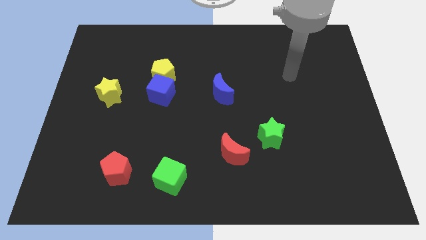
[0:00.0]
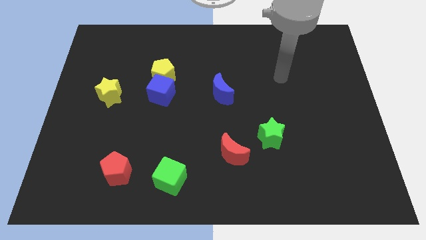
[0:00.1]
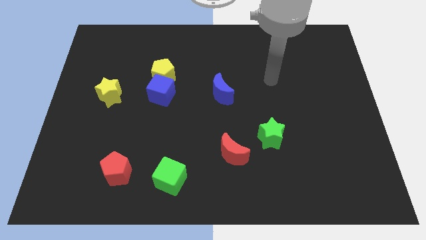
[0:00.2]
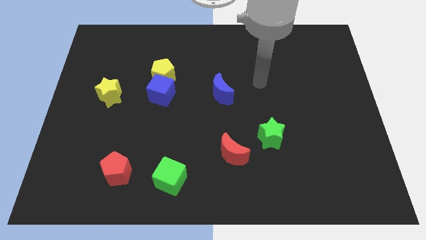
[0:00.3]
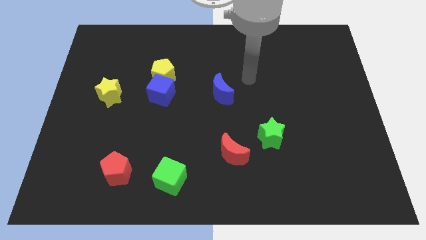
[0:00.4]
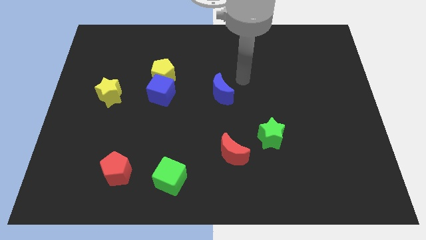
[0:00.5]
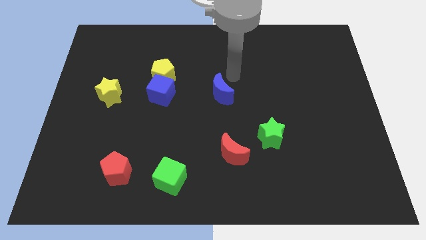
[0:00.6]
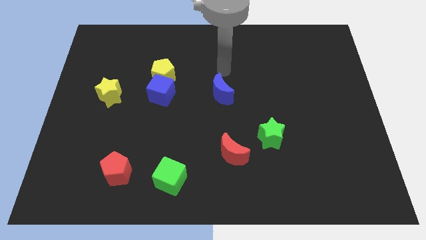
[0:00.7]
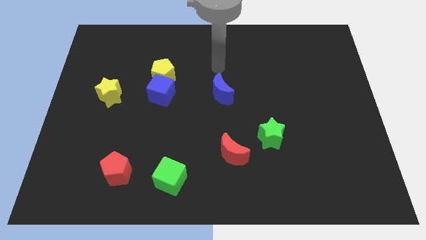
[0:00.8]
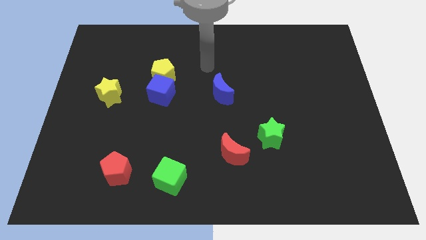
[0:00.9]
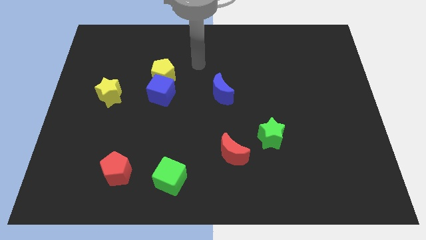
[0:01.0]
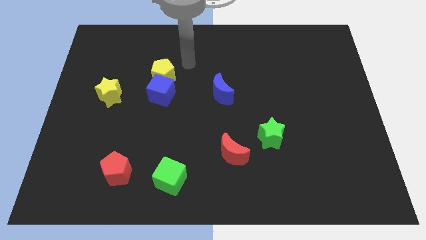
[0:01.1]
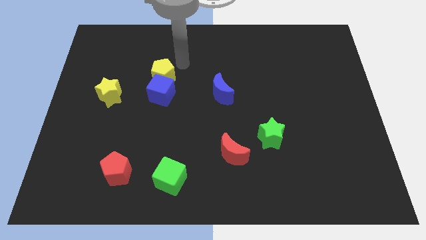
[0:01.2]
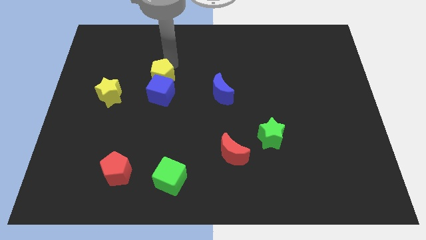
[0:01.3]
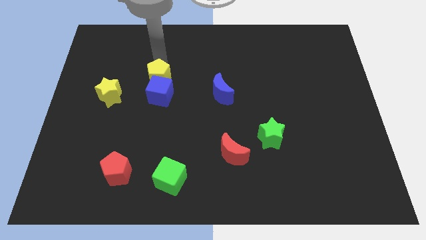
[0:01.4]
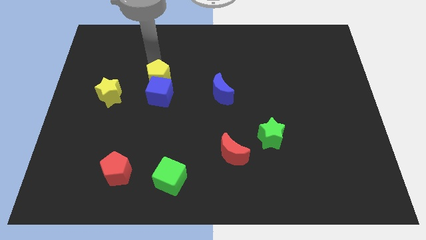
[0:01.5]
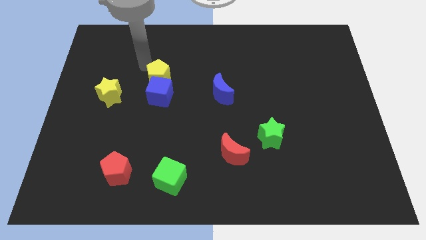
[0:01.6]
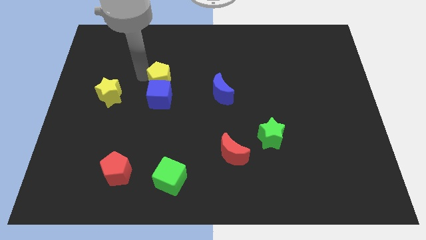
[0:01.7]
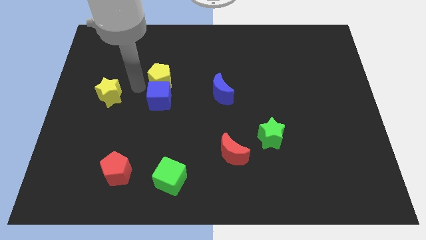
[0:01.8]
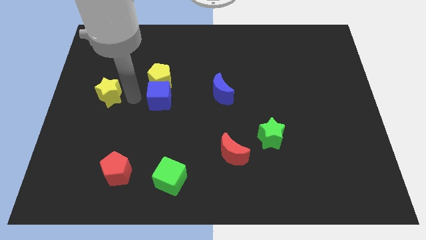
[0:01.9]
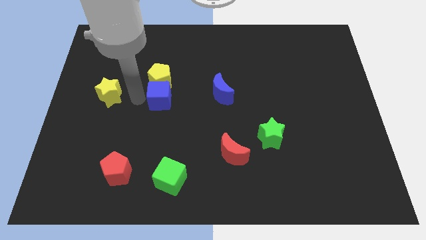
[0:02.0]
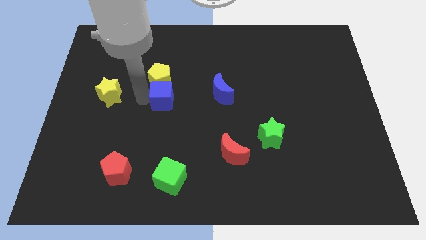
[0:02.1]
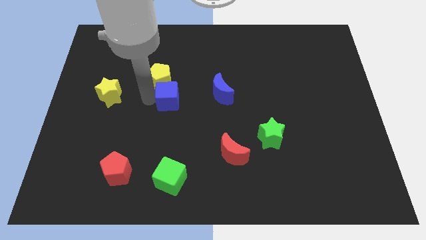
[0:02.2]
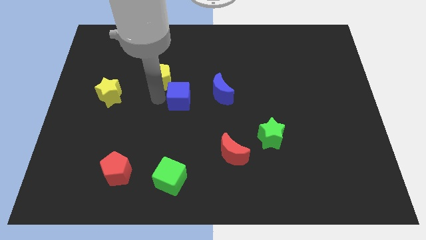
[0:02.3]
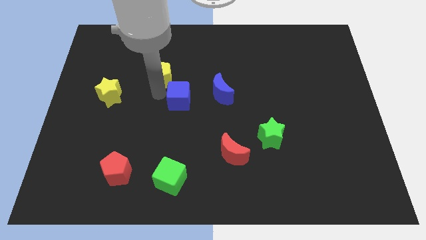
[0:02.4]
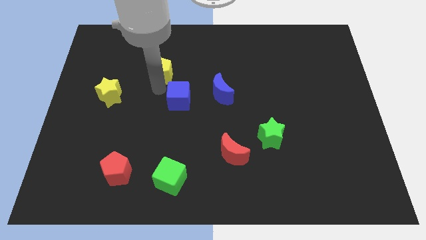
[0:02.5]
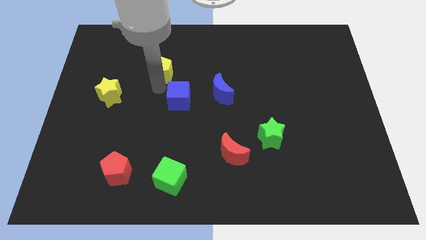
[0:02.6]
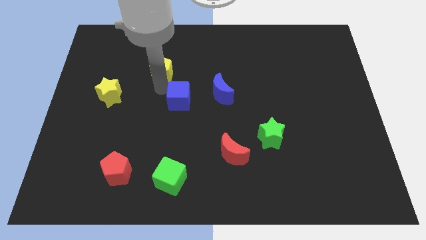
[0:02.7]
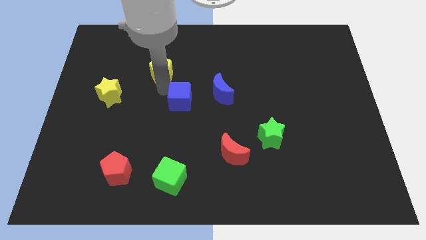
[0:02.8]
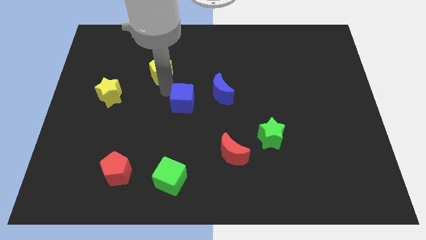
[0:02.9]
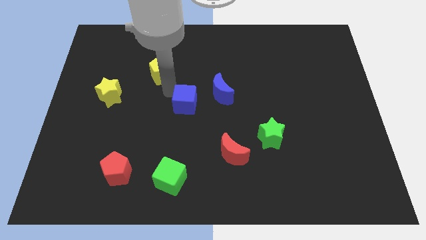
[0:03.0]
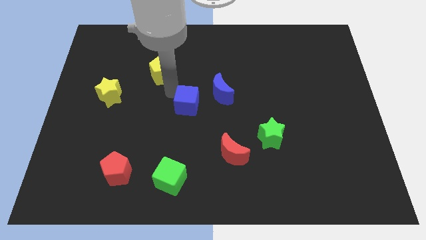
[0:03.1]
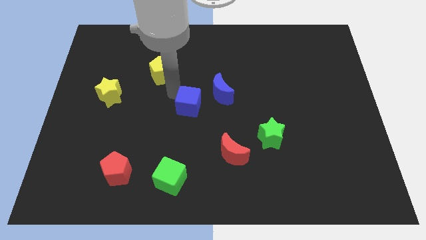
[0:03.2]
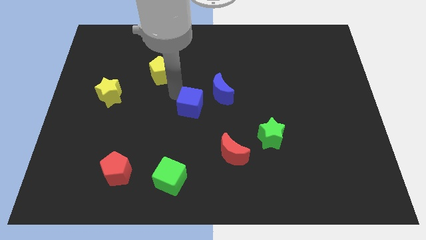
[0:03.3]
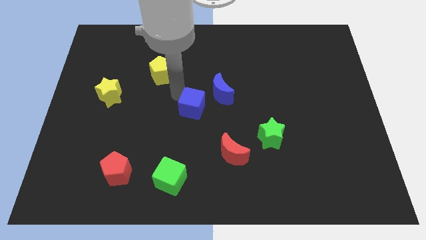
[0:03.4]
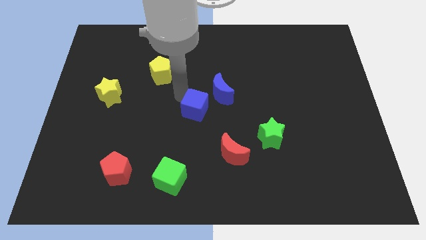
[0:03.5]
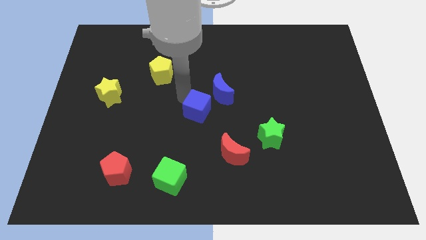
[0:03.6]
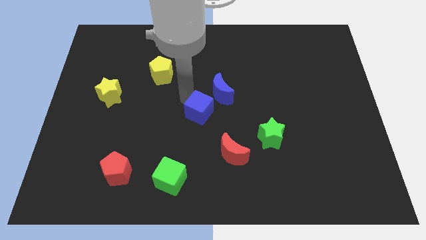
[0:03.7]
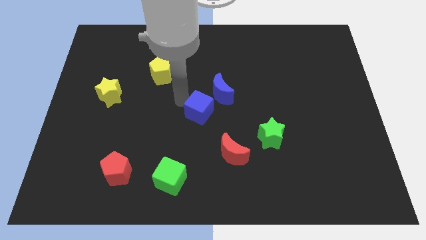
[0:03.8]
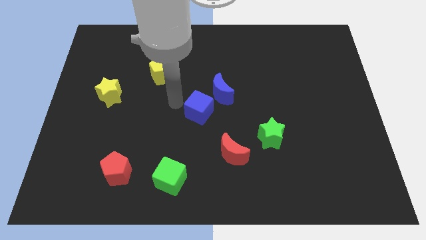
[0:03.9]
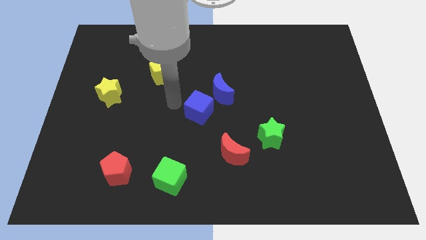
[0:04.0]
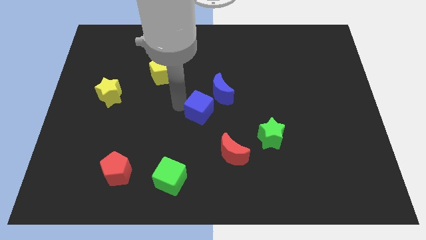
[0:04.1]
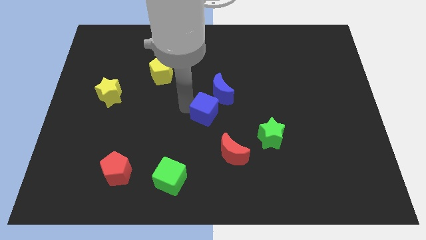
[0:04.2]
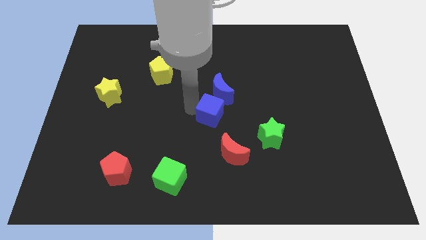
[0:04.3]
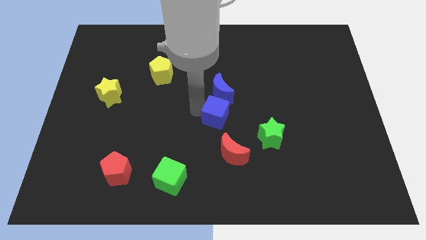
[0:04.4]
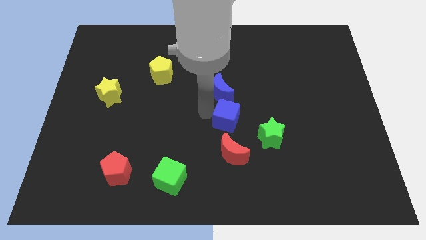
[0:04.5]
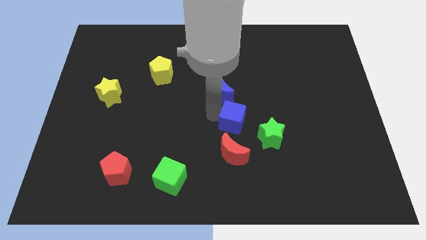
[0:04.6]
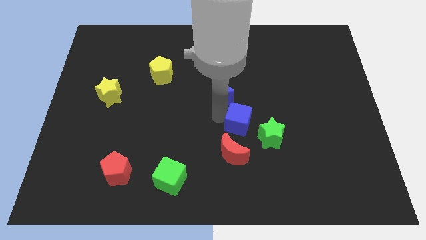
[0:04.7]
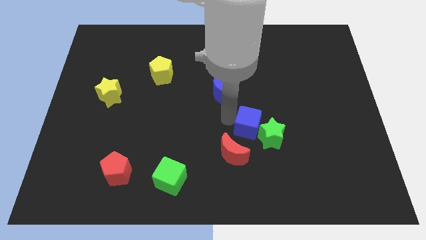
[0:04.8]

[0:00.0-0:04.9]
move the blue cube towards the green star

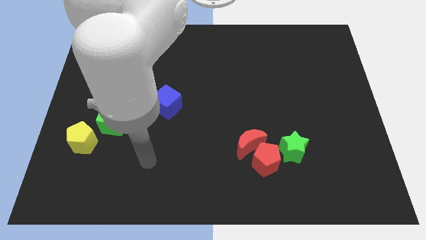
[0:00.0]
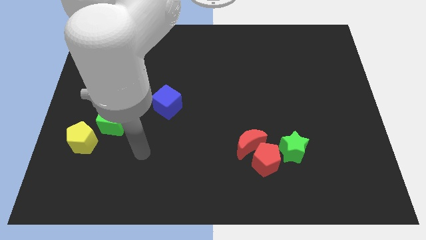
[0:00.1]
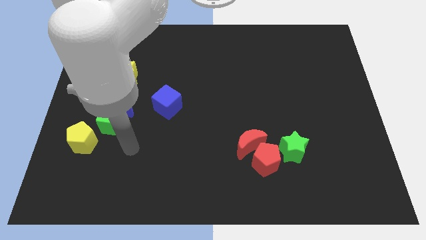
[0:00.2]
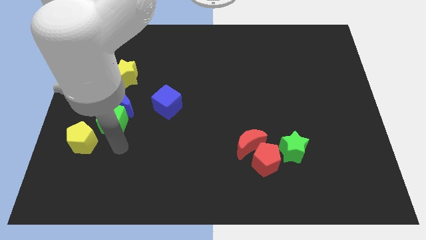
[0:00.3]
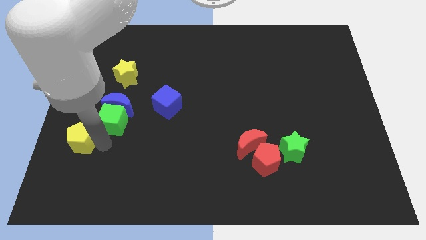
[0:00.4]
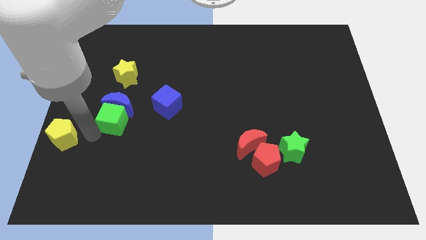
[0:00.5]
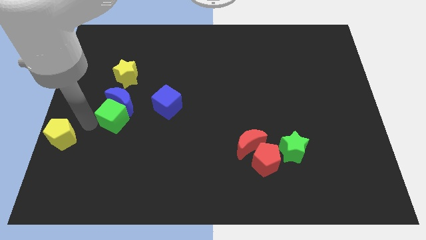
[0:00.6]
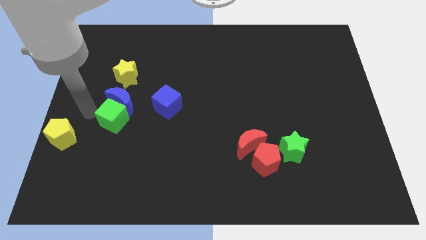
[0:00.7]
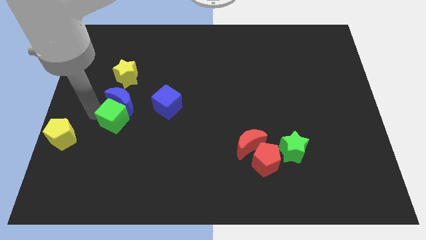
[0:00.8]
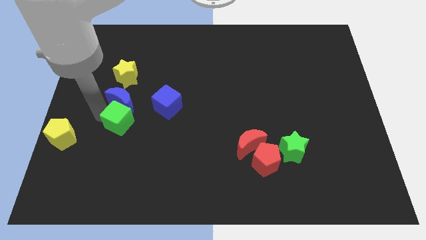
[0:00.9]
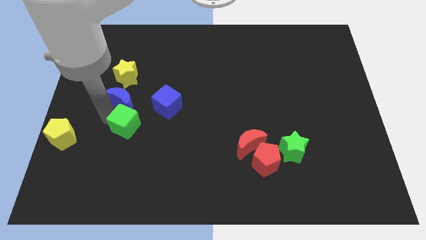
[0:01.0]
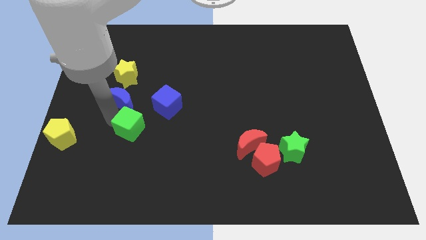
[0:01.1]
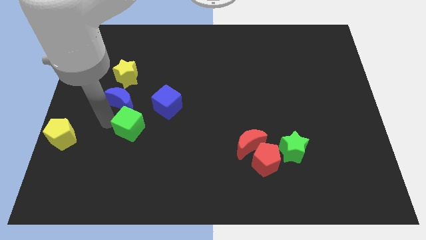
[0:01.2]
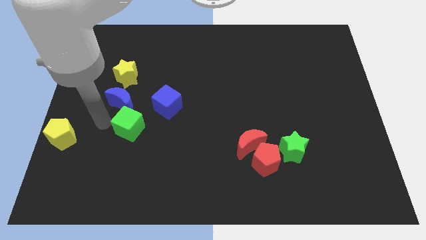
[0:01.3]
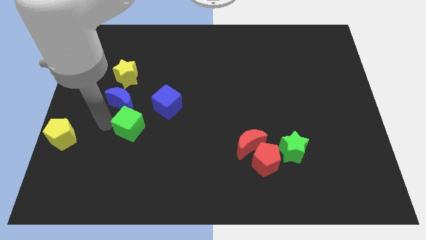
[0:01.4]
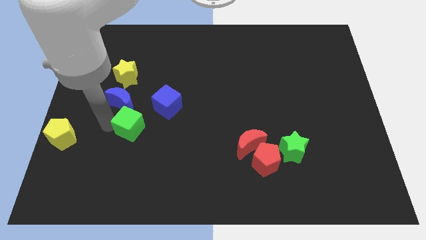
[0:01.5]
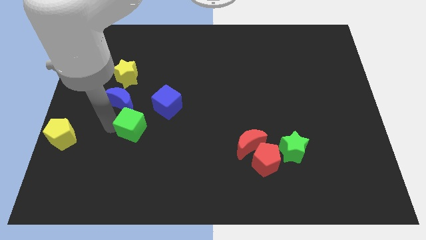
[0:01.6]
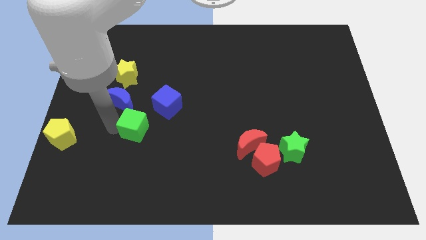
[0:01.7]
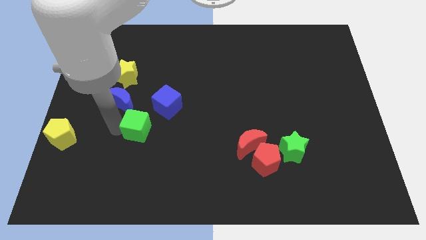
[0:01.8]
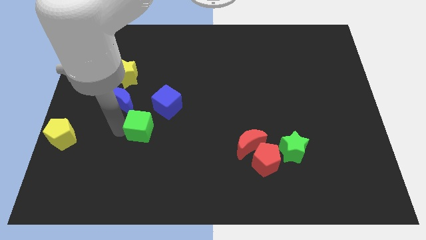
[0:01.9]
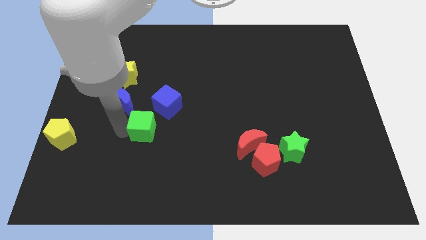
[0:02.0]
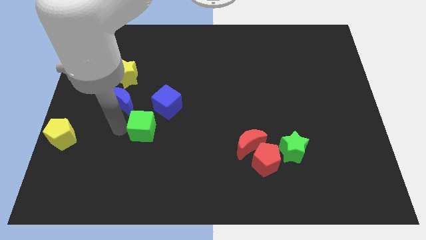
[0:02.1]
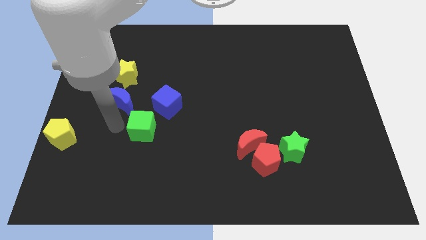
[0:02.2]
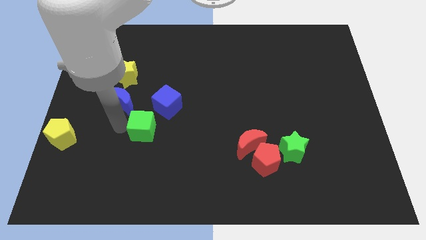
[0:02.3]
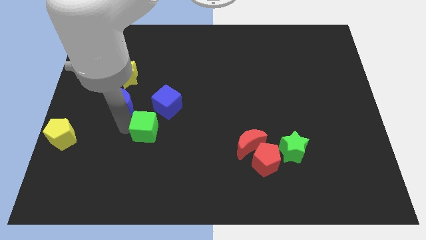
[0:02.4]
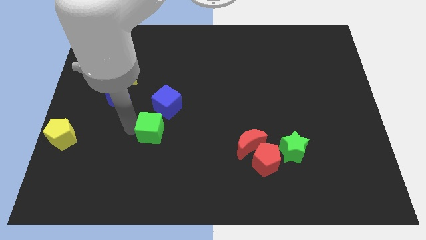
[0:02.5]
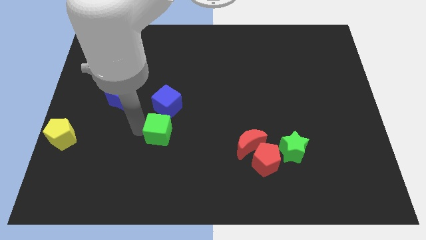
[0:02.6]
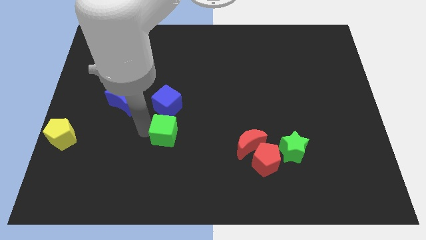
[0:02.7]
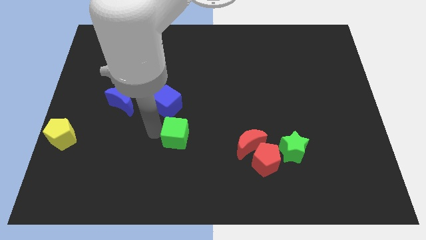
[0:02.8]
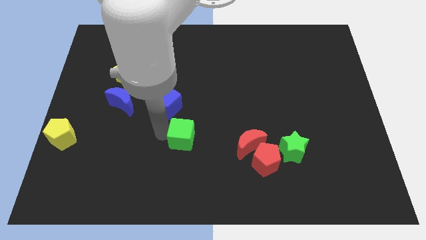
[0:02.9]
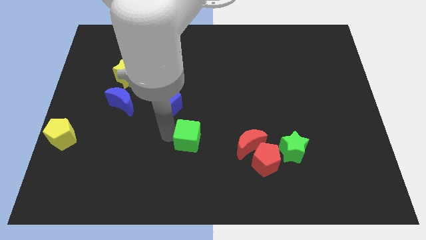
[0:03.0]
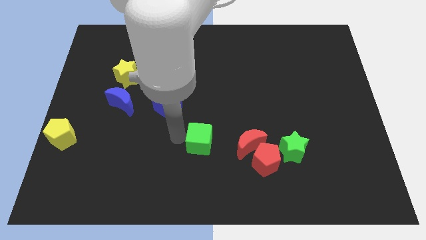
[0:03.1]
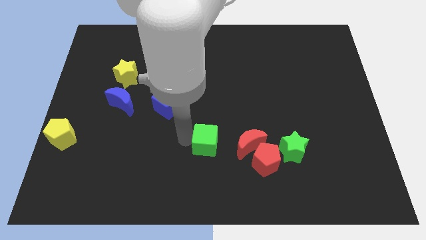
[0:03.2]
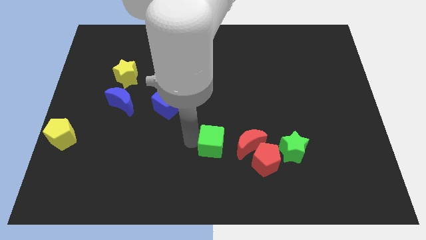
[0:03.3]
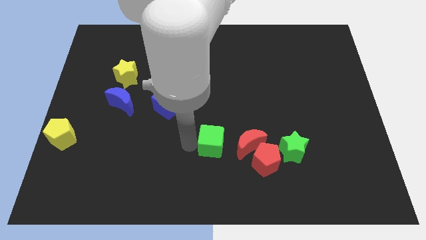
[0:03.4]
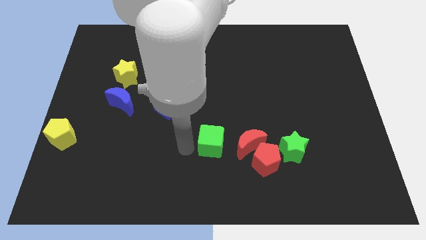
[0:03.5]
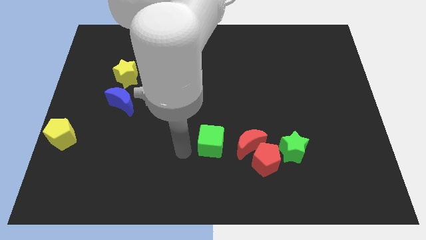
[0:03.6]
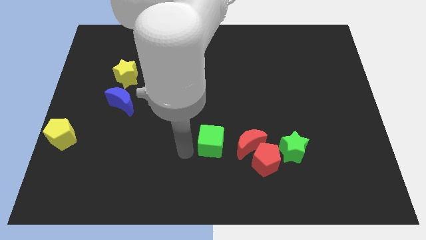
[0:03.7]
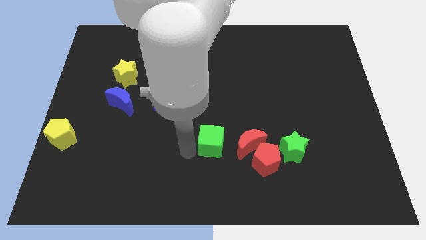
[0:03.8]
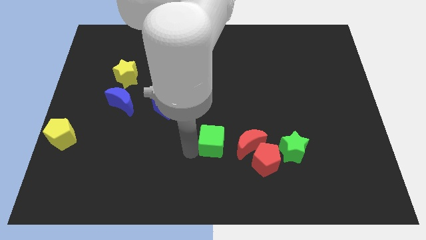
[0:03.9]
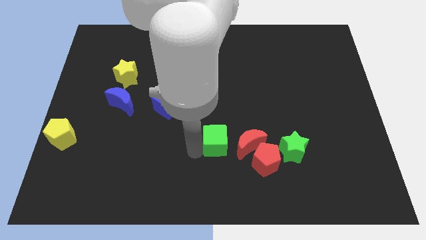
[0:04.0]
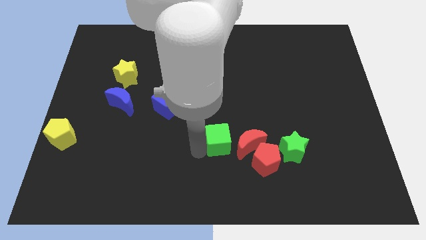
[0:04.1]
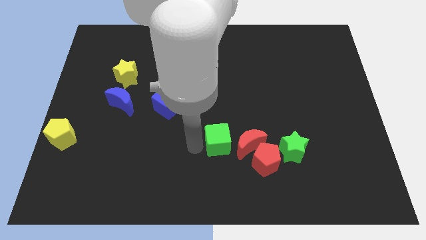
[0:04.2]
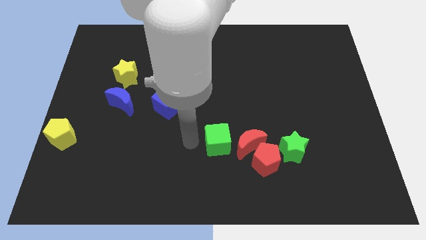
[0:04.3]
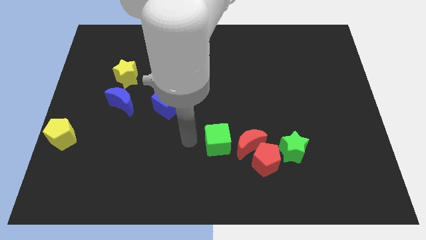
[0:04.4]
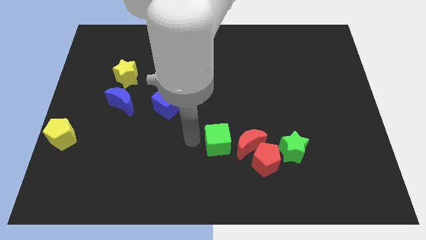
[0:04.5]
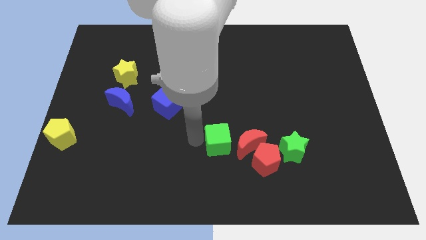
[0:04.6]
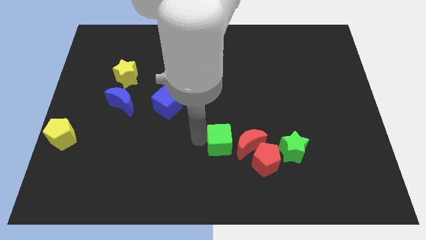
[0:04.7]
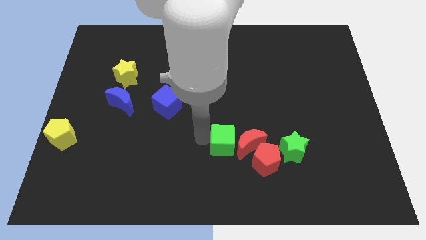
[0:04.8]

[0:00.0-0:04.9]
slide the green cube close to the red moon
